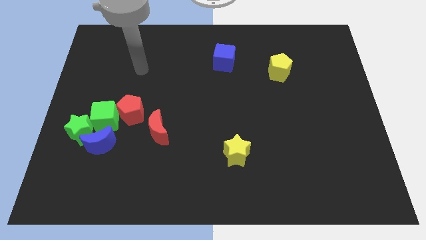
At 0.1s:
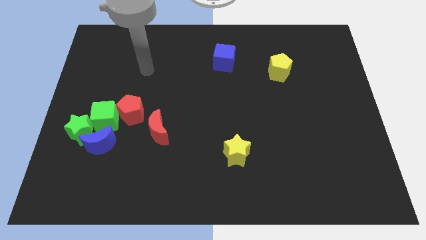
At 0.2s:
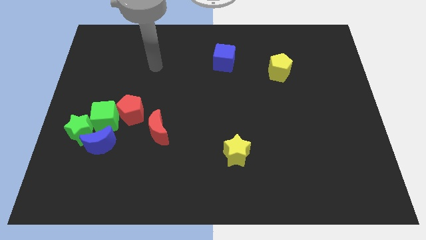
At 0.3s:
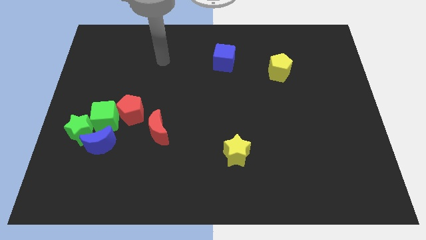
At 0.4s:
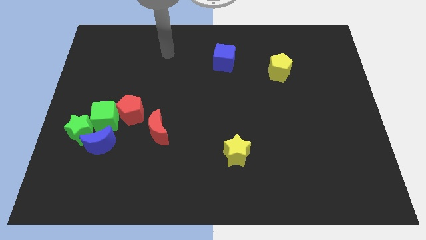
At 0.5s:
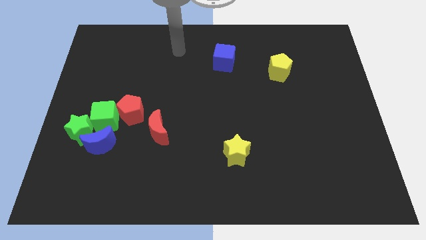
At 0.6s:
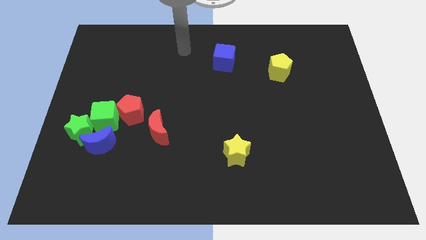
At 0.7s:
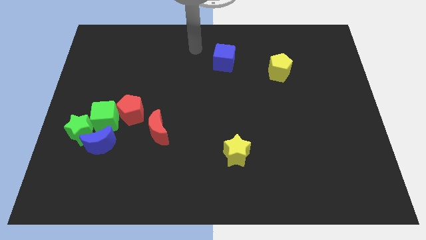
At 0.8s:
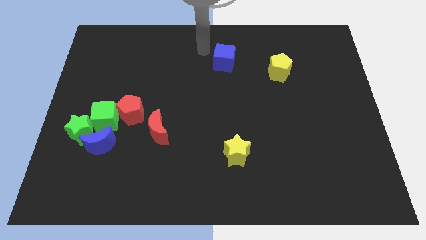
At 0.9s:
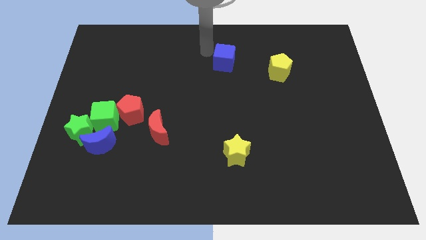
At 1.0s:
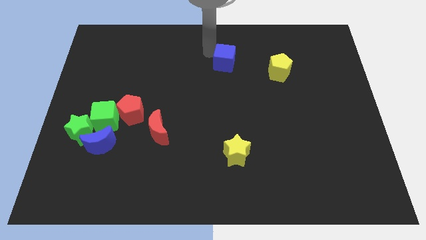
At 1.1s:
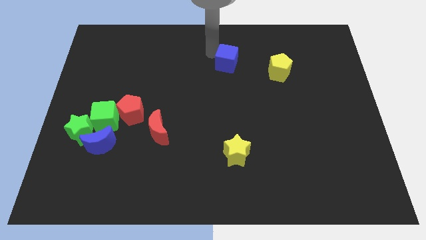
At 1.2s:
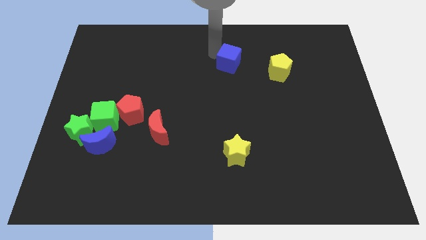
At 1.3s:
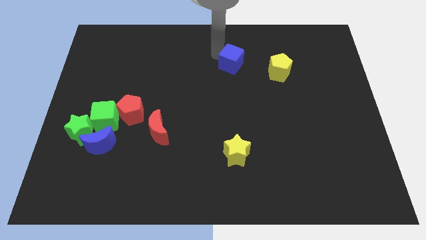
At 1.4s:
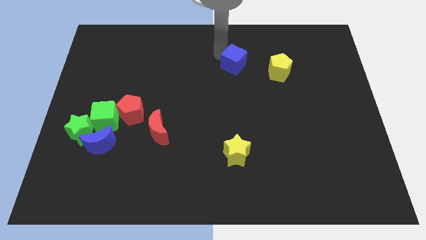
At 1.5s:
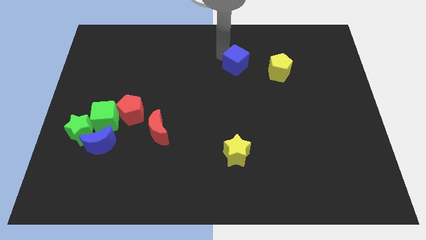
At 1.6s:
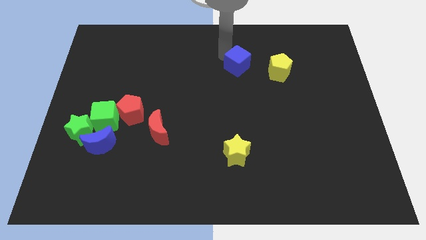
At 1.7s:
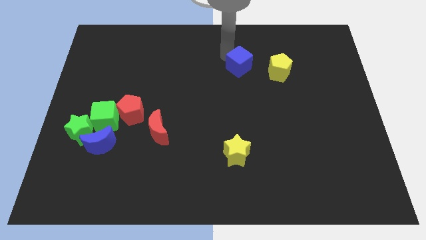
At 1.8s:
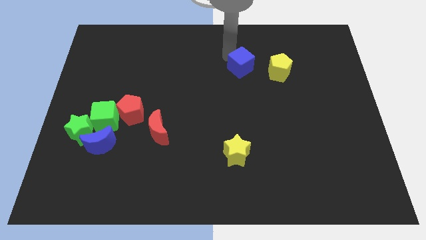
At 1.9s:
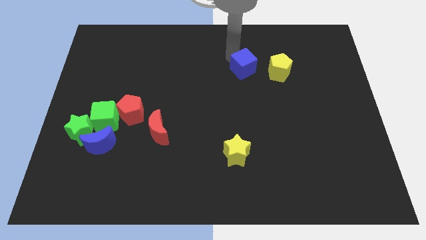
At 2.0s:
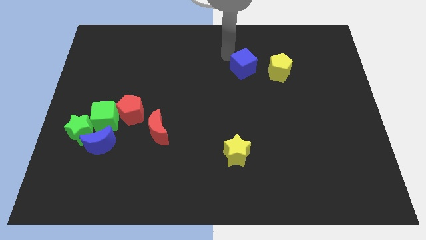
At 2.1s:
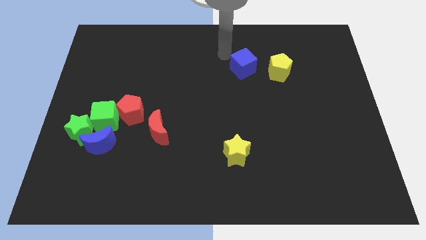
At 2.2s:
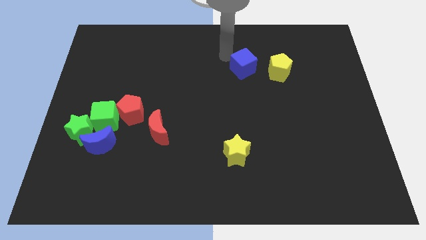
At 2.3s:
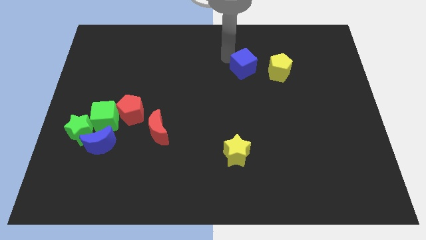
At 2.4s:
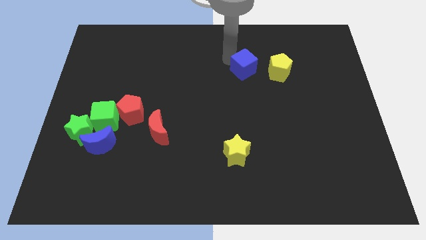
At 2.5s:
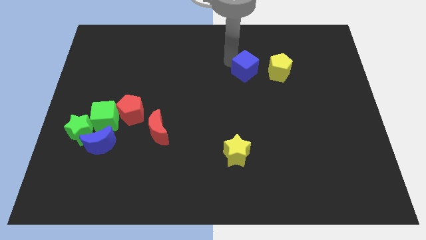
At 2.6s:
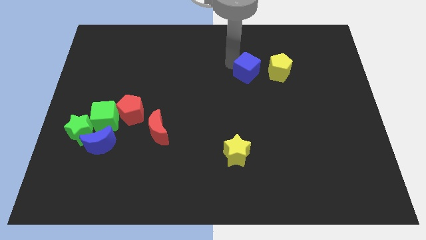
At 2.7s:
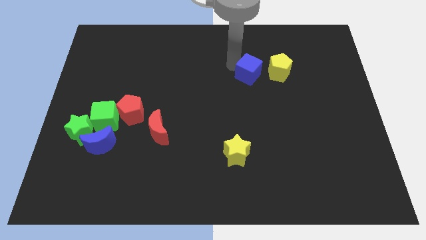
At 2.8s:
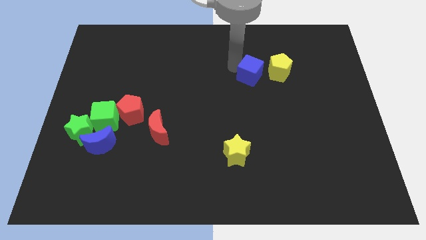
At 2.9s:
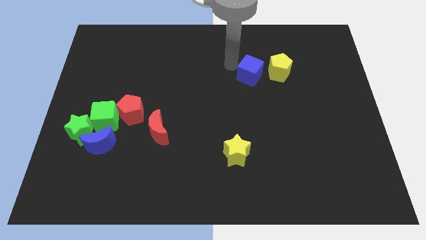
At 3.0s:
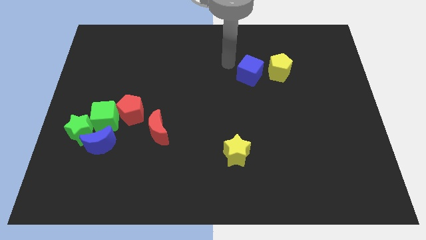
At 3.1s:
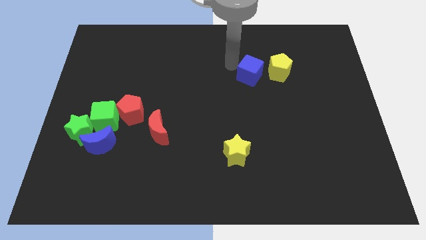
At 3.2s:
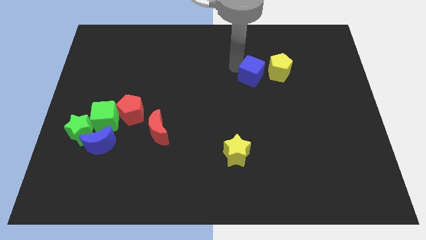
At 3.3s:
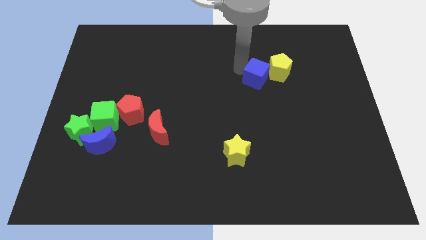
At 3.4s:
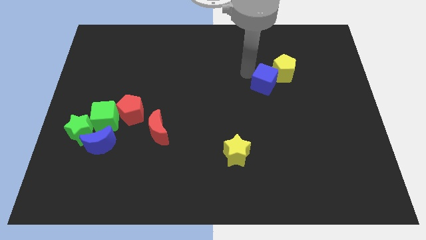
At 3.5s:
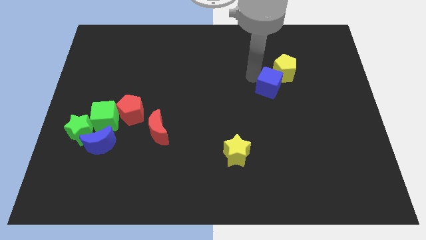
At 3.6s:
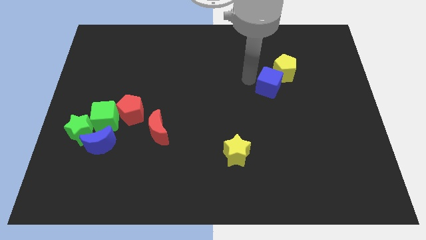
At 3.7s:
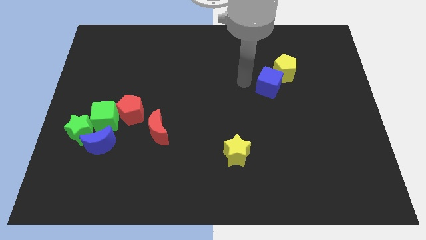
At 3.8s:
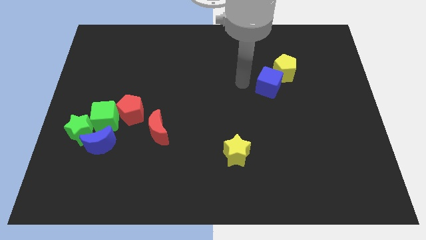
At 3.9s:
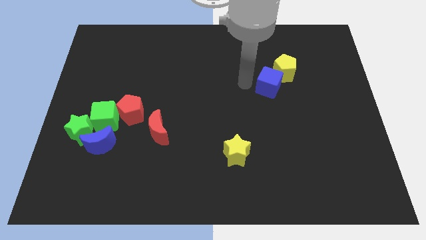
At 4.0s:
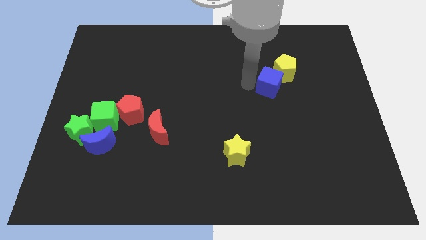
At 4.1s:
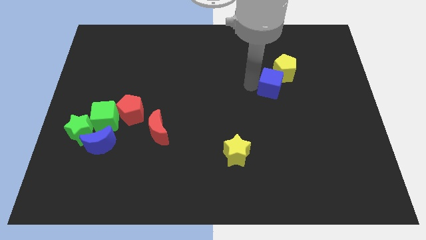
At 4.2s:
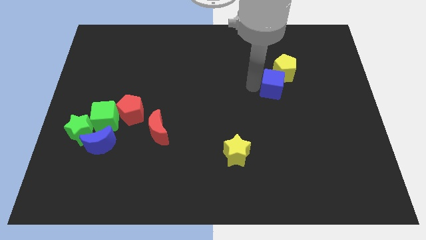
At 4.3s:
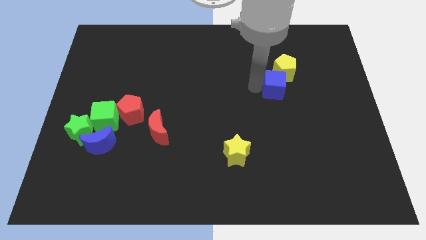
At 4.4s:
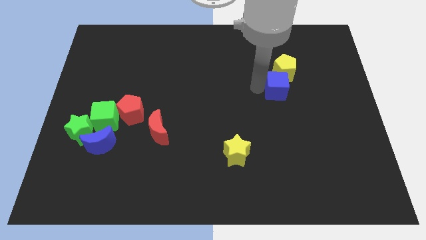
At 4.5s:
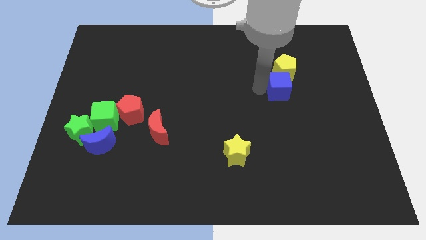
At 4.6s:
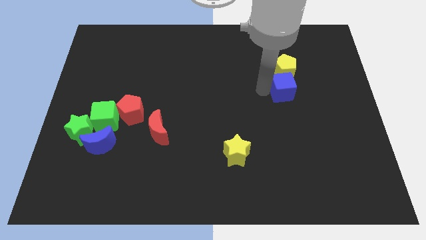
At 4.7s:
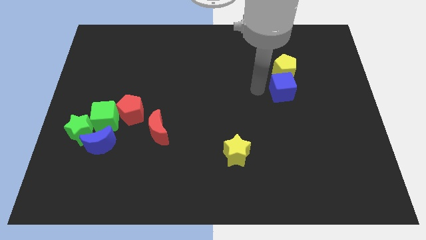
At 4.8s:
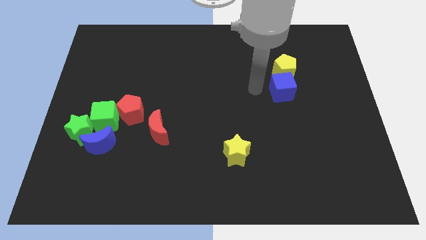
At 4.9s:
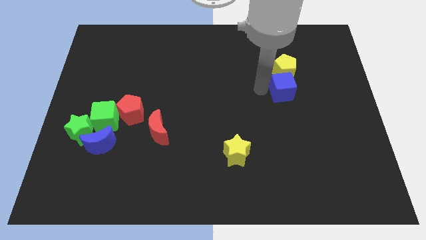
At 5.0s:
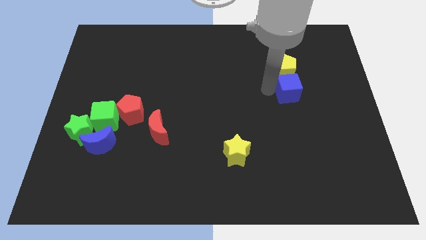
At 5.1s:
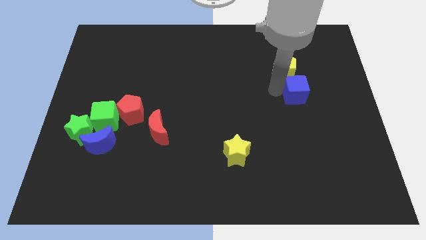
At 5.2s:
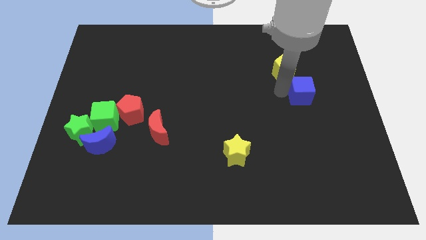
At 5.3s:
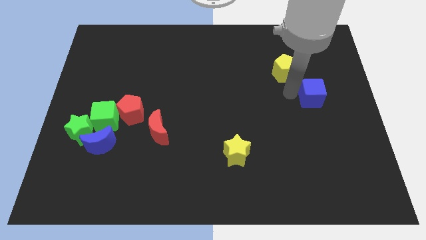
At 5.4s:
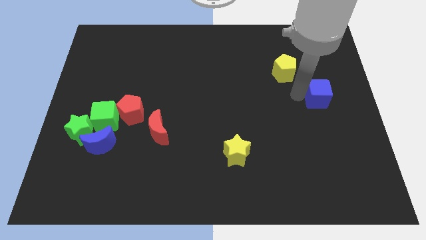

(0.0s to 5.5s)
move the blue cube to the center right

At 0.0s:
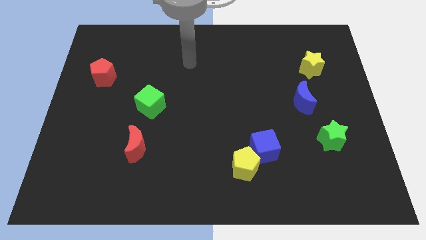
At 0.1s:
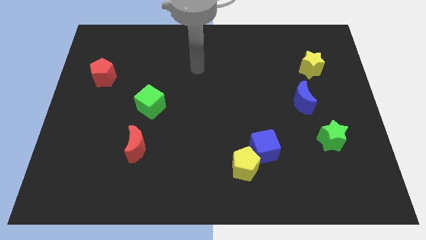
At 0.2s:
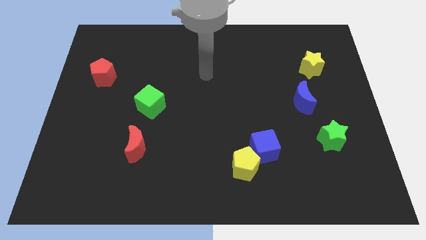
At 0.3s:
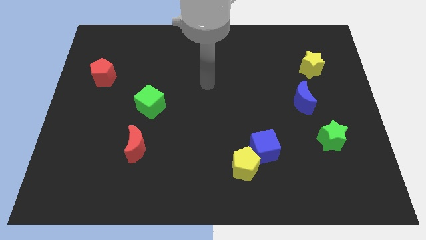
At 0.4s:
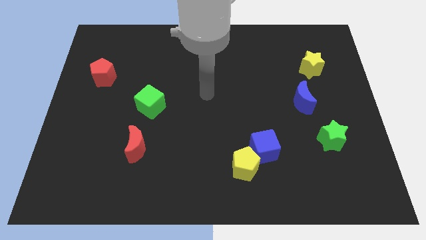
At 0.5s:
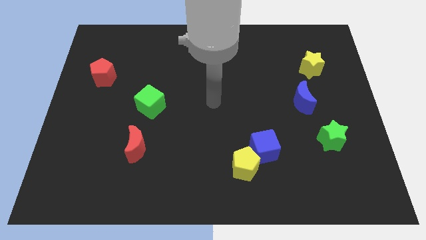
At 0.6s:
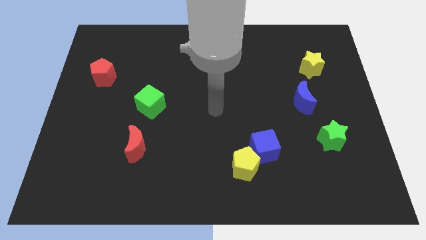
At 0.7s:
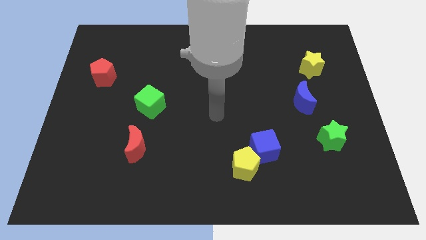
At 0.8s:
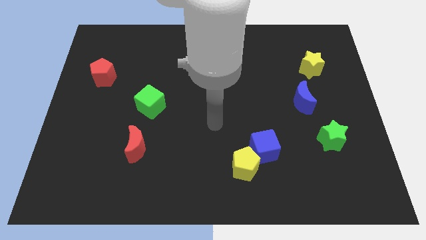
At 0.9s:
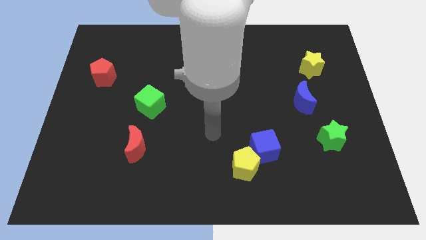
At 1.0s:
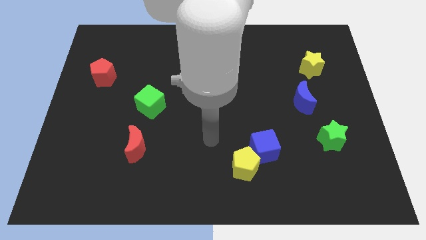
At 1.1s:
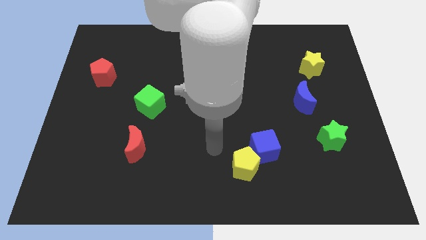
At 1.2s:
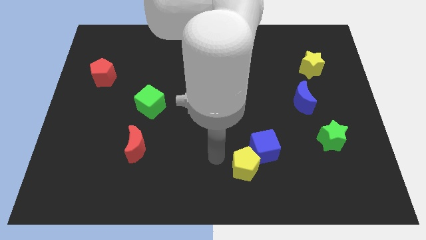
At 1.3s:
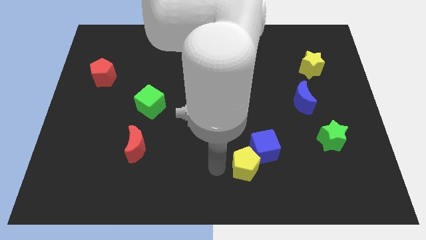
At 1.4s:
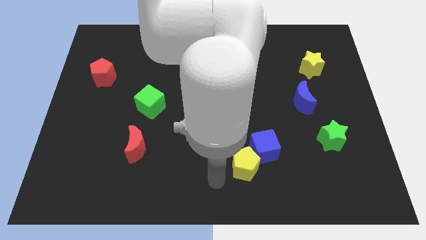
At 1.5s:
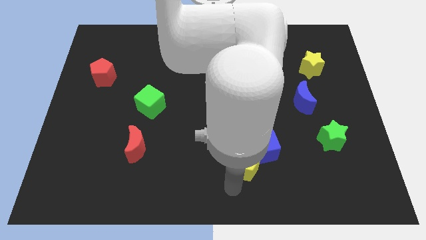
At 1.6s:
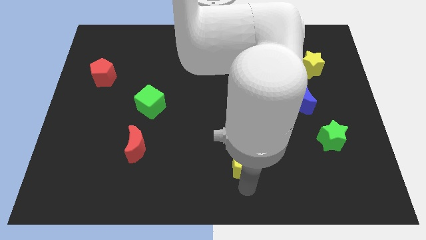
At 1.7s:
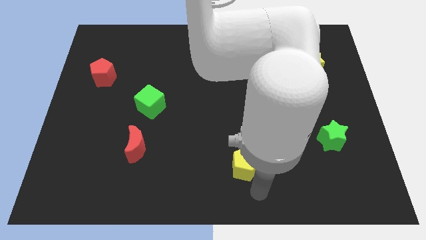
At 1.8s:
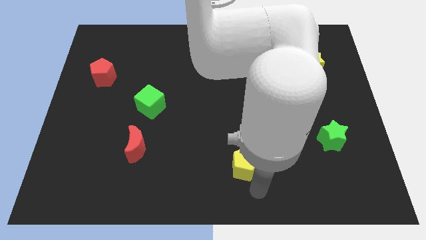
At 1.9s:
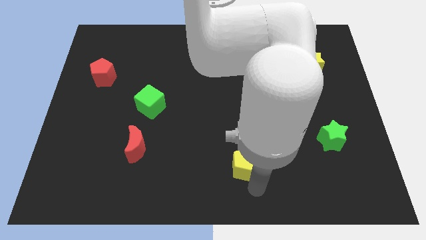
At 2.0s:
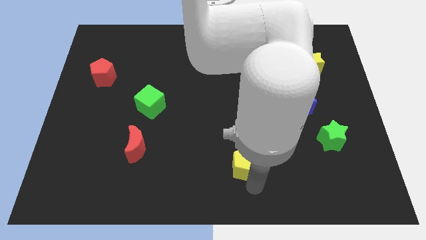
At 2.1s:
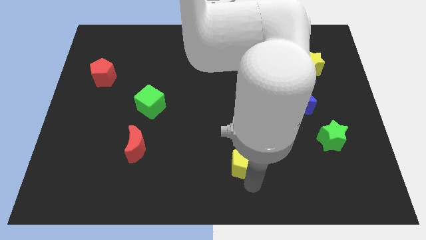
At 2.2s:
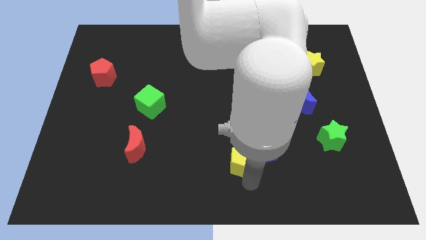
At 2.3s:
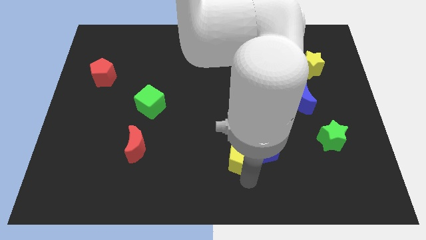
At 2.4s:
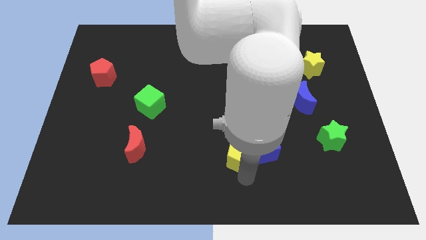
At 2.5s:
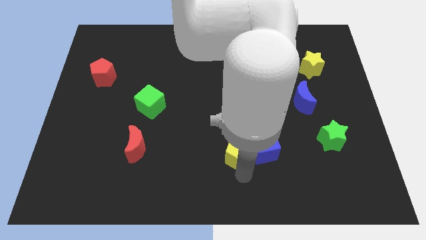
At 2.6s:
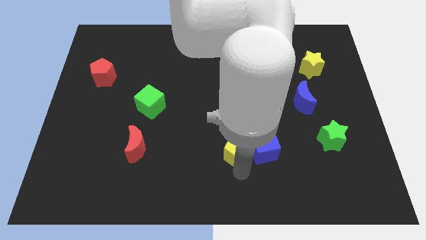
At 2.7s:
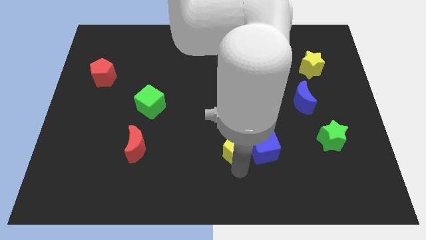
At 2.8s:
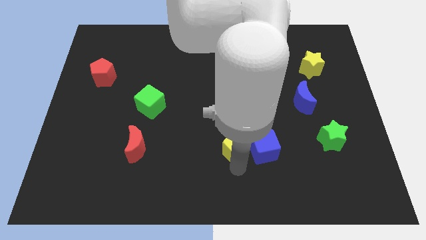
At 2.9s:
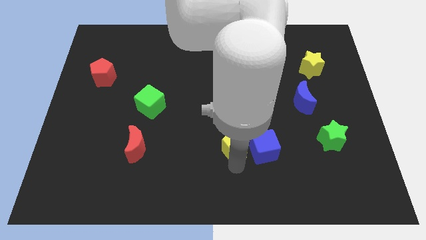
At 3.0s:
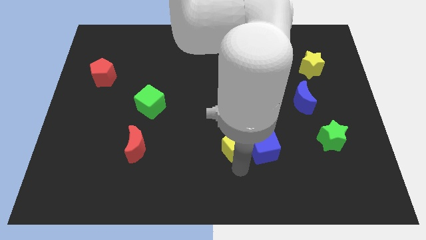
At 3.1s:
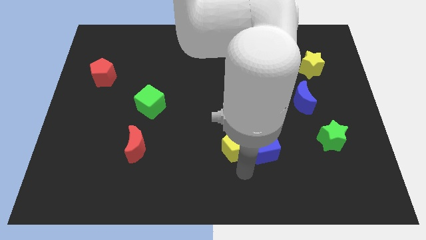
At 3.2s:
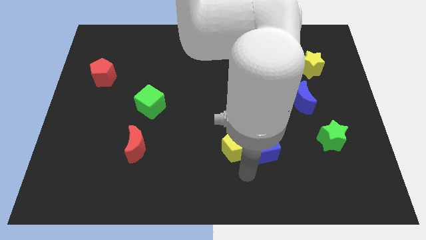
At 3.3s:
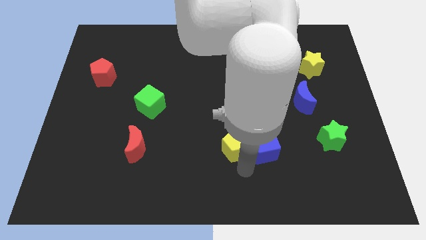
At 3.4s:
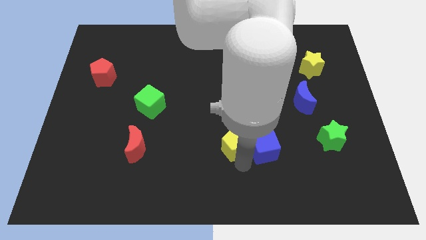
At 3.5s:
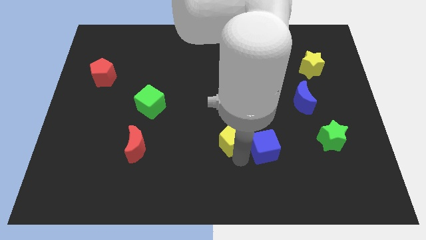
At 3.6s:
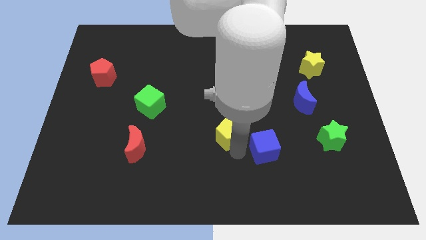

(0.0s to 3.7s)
slide the yellow pentagon to the center of the board
